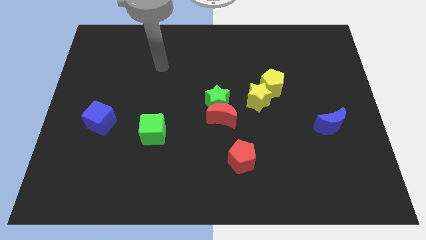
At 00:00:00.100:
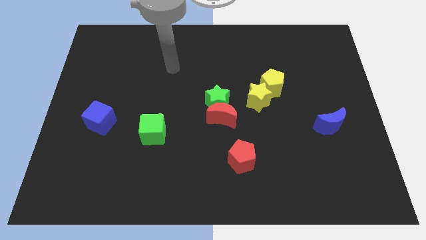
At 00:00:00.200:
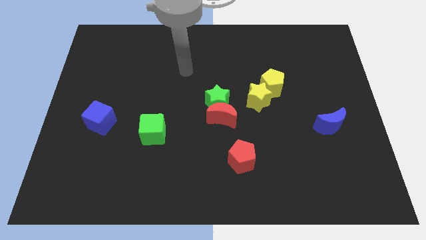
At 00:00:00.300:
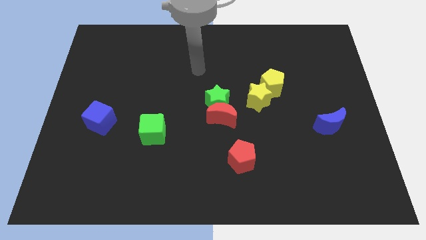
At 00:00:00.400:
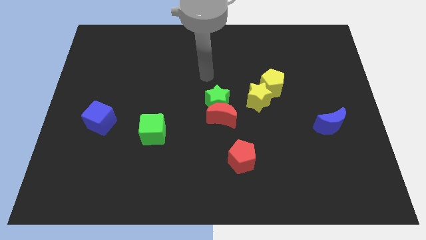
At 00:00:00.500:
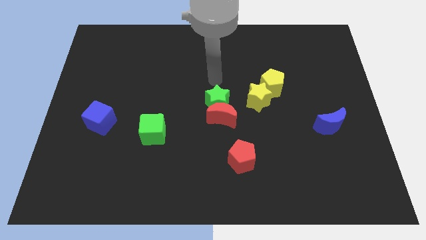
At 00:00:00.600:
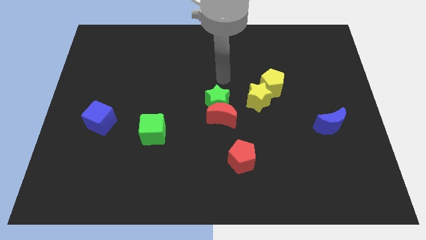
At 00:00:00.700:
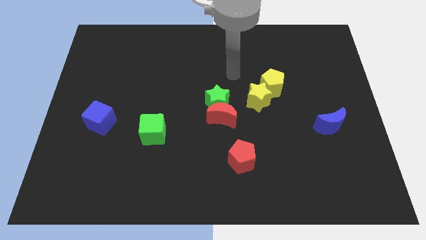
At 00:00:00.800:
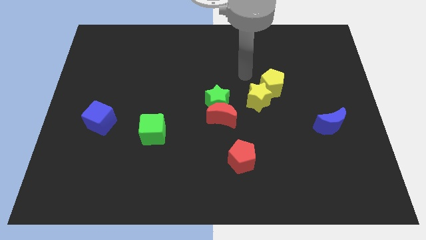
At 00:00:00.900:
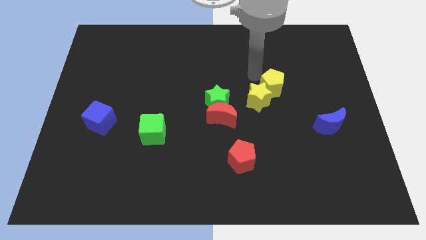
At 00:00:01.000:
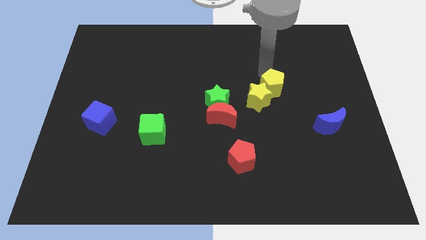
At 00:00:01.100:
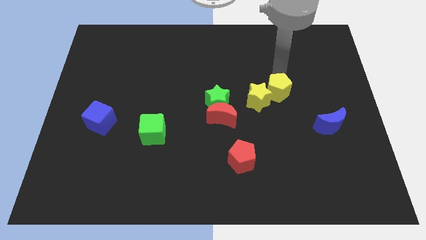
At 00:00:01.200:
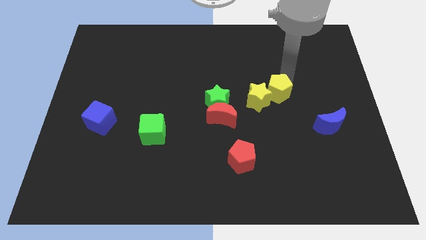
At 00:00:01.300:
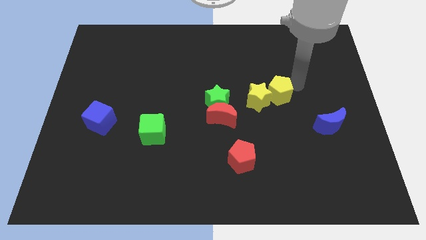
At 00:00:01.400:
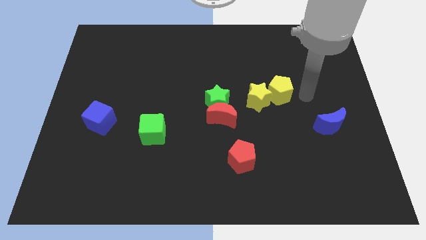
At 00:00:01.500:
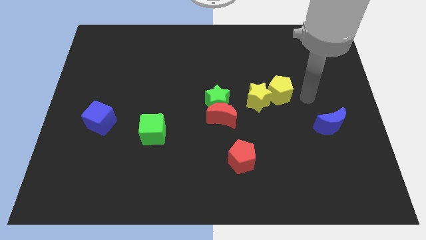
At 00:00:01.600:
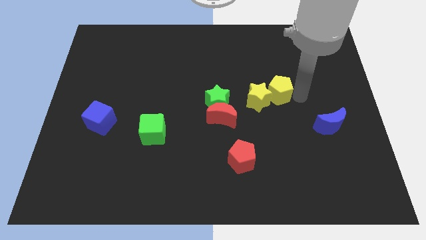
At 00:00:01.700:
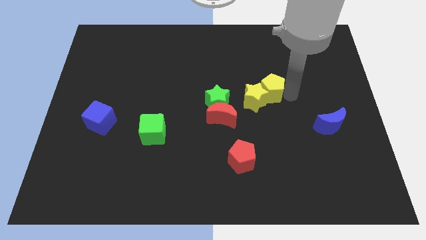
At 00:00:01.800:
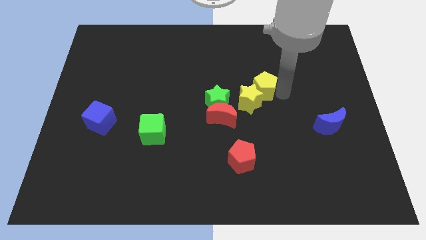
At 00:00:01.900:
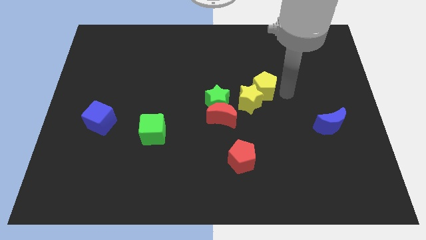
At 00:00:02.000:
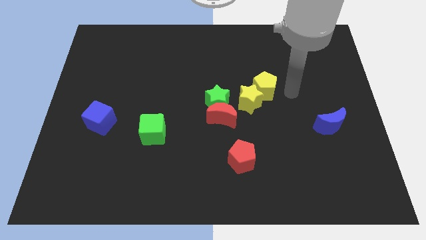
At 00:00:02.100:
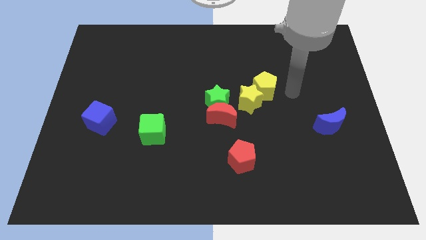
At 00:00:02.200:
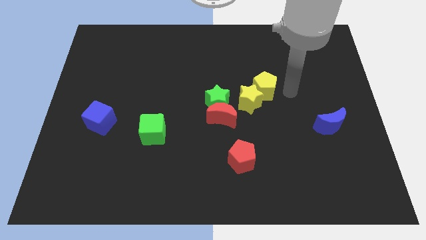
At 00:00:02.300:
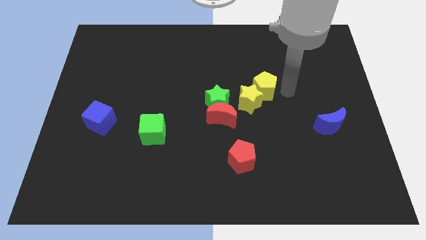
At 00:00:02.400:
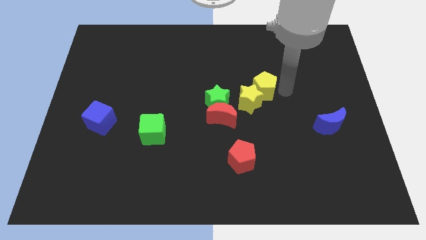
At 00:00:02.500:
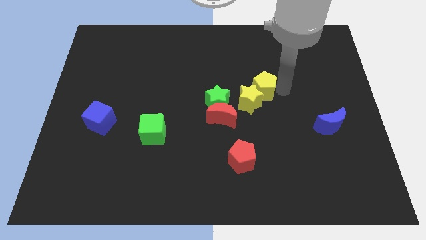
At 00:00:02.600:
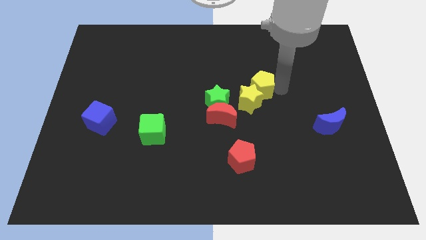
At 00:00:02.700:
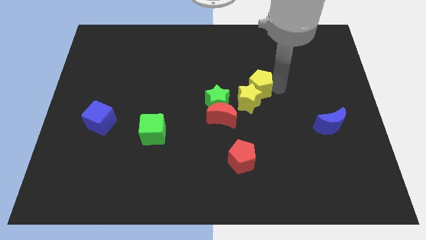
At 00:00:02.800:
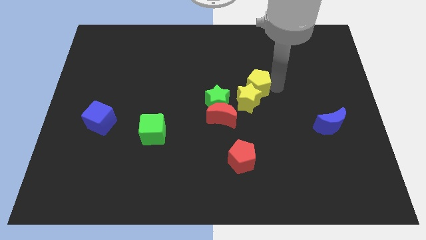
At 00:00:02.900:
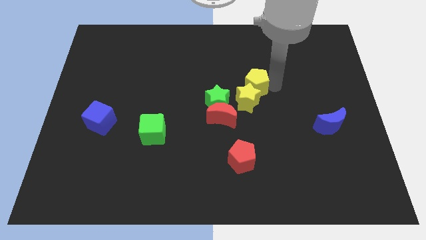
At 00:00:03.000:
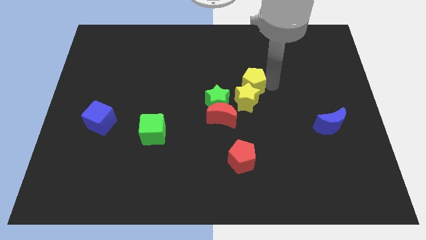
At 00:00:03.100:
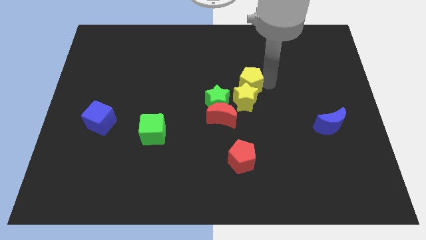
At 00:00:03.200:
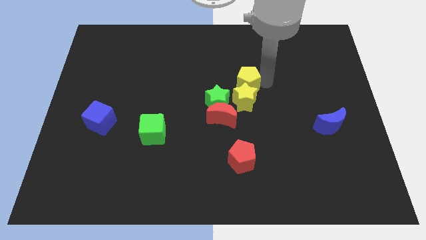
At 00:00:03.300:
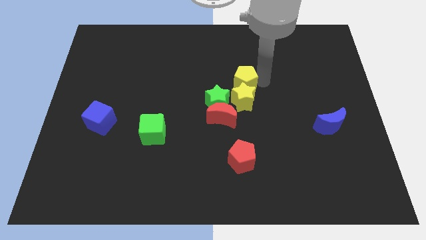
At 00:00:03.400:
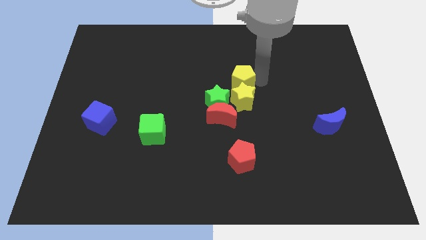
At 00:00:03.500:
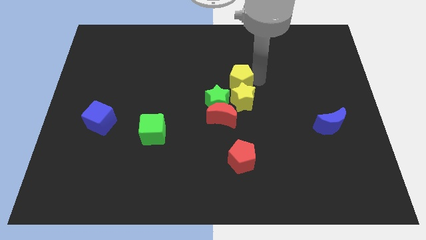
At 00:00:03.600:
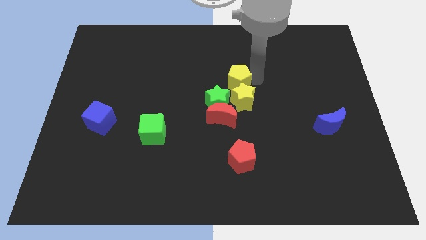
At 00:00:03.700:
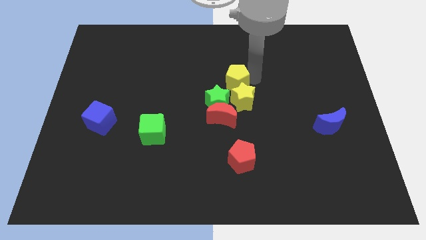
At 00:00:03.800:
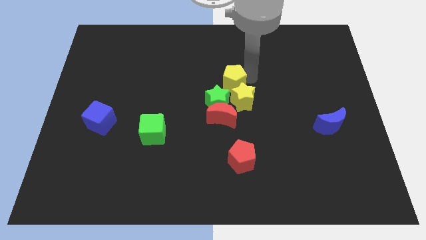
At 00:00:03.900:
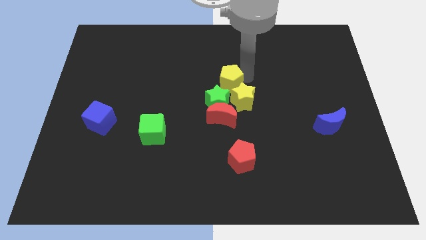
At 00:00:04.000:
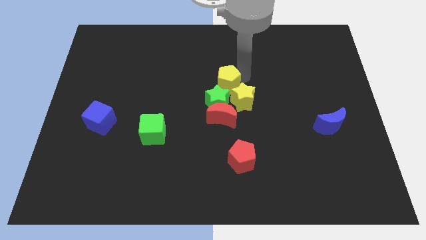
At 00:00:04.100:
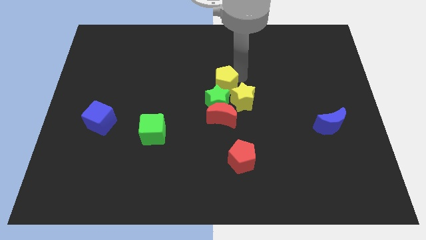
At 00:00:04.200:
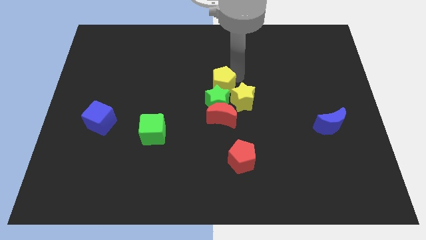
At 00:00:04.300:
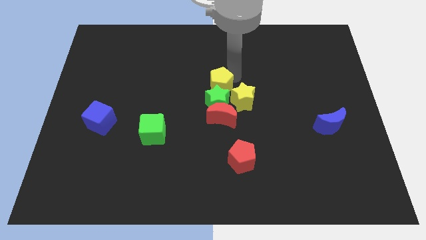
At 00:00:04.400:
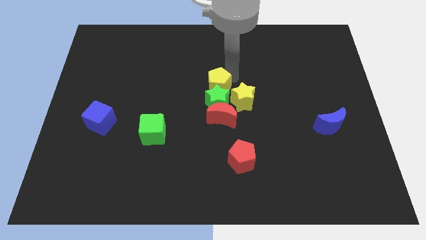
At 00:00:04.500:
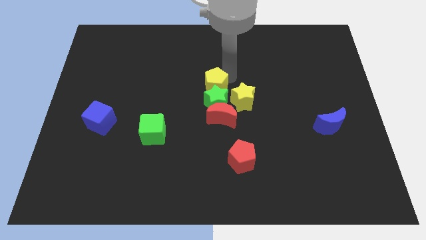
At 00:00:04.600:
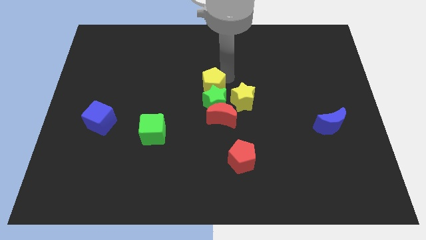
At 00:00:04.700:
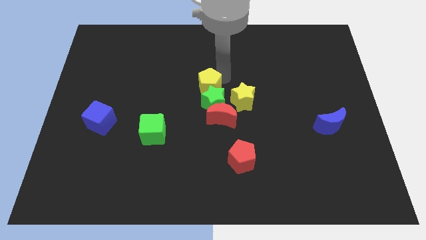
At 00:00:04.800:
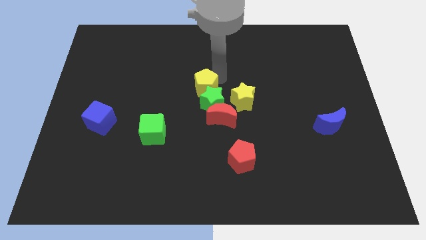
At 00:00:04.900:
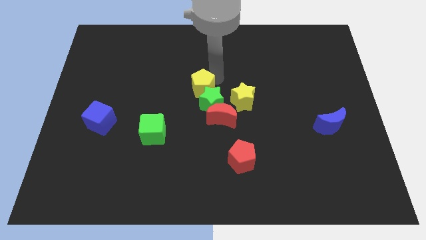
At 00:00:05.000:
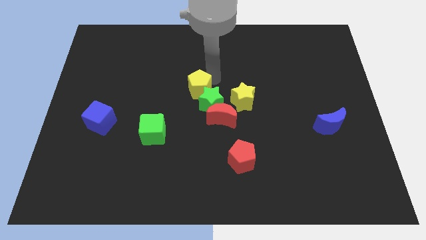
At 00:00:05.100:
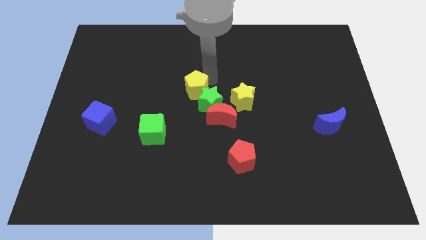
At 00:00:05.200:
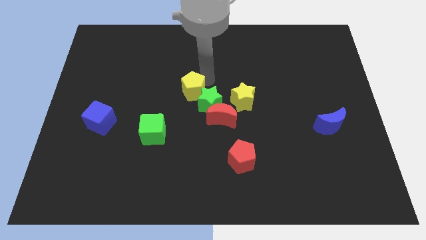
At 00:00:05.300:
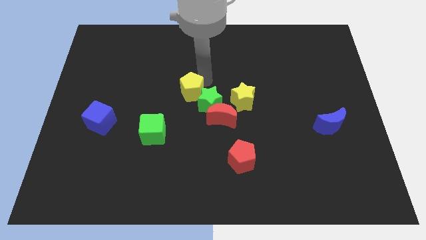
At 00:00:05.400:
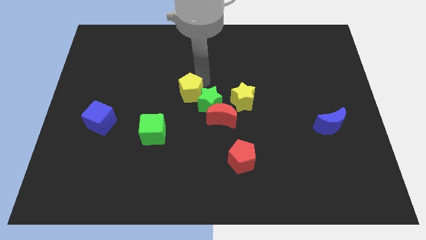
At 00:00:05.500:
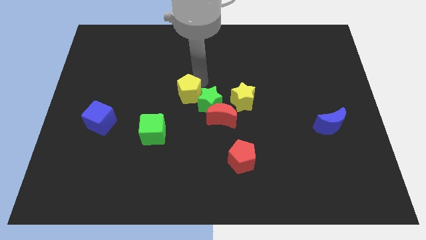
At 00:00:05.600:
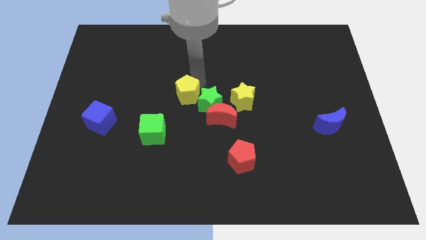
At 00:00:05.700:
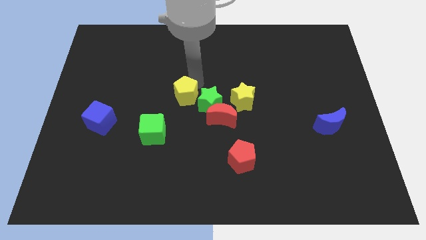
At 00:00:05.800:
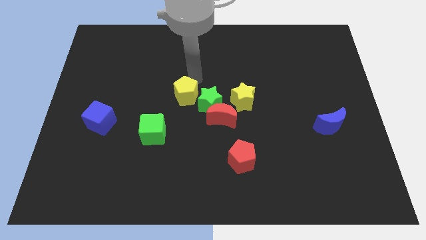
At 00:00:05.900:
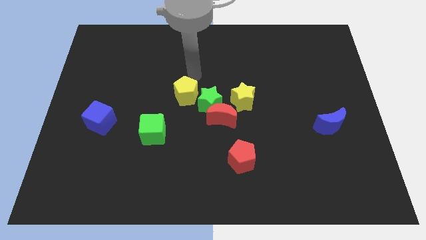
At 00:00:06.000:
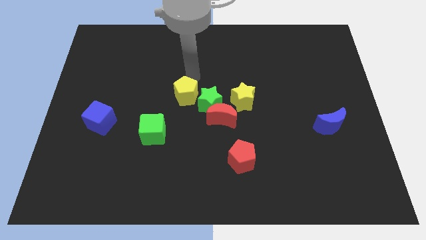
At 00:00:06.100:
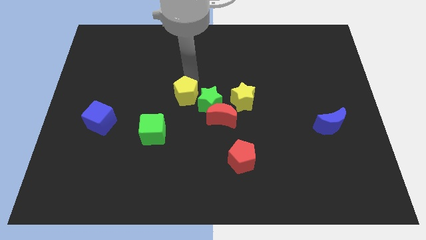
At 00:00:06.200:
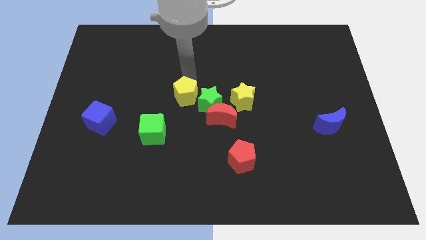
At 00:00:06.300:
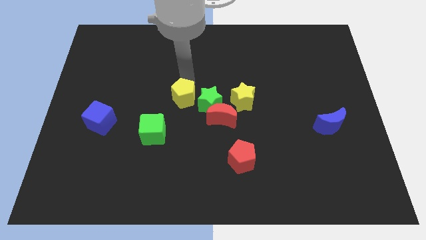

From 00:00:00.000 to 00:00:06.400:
put the yellow pentagon to the top right of the green cube
